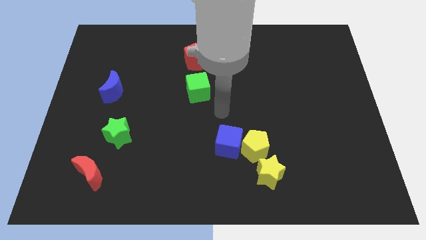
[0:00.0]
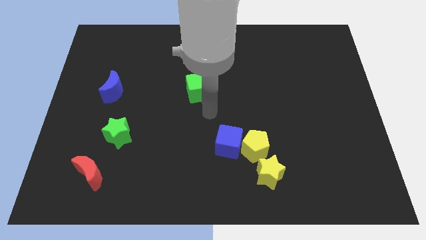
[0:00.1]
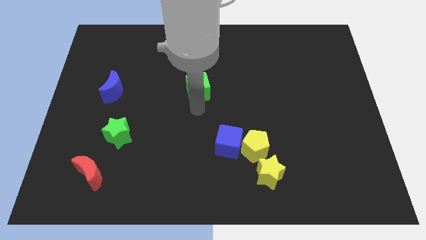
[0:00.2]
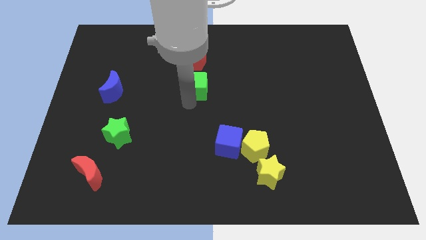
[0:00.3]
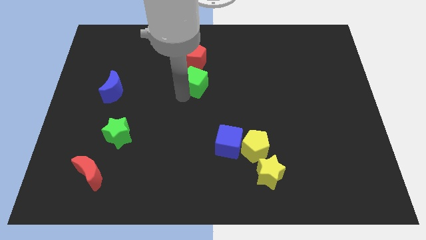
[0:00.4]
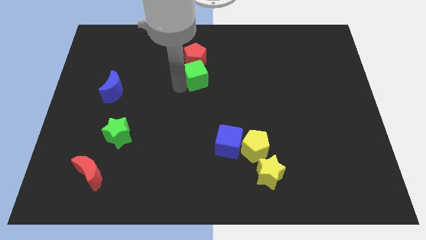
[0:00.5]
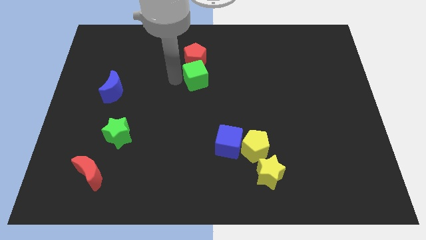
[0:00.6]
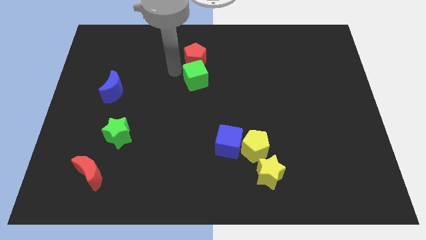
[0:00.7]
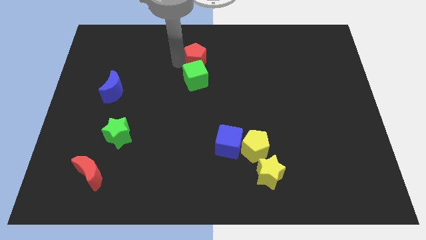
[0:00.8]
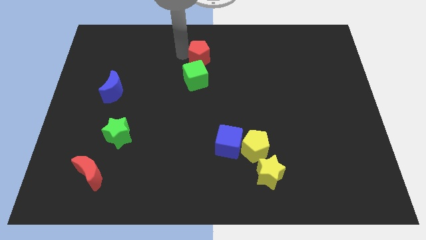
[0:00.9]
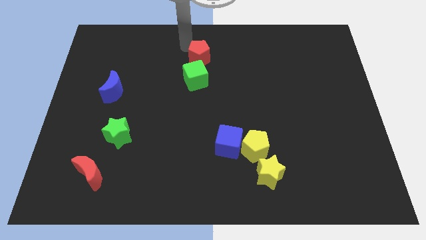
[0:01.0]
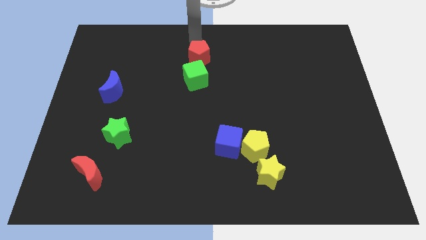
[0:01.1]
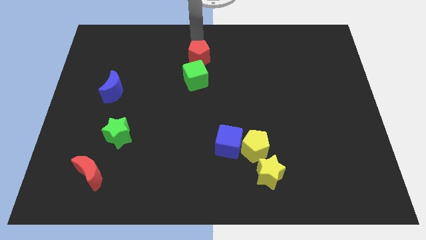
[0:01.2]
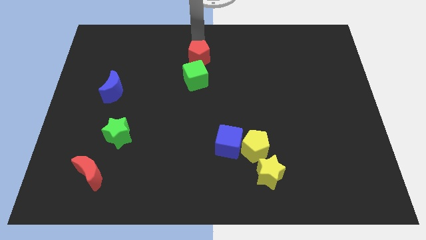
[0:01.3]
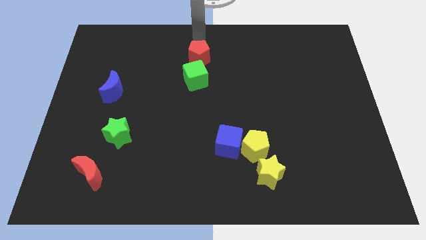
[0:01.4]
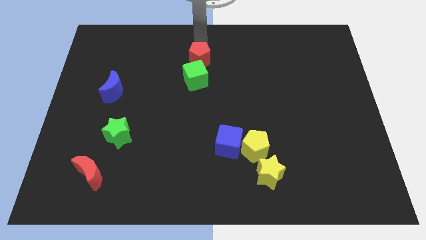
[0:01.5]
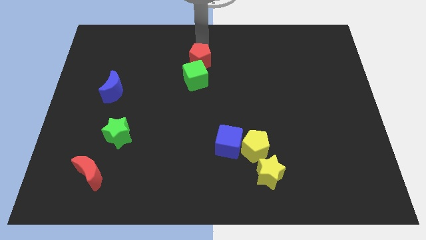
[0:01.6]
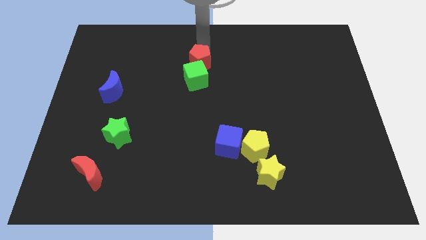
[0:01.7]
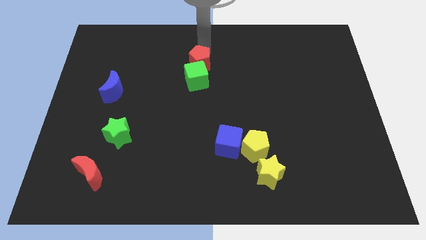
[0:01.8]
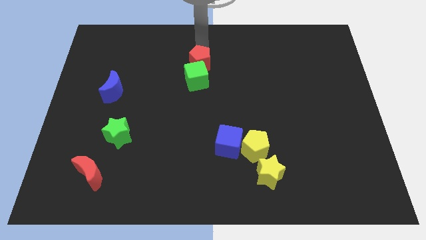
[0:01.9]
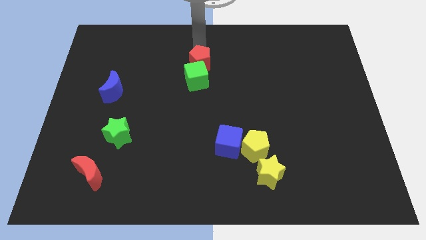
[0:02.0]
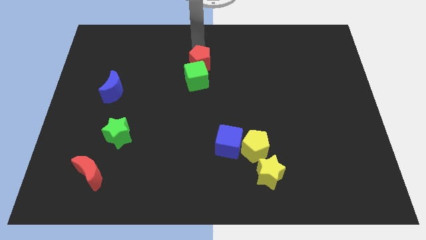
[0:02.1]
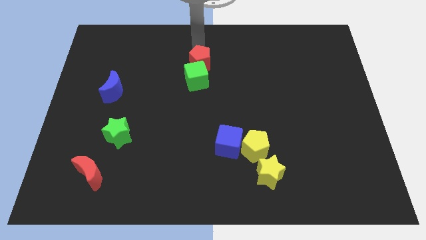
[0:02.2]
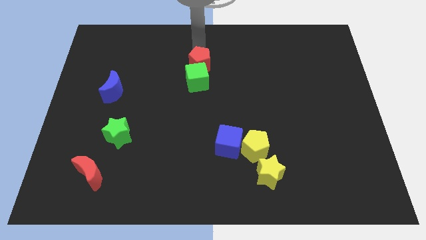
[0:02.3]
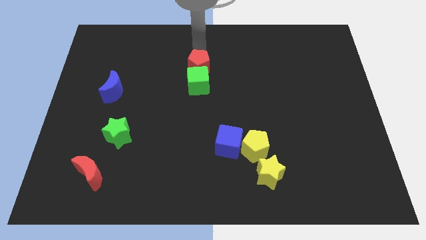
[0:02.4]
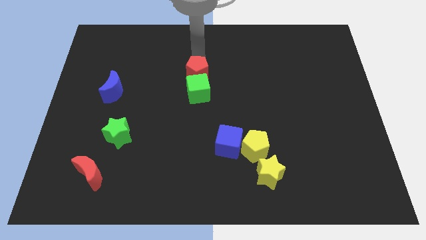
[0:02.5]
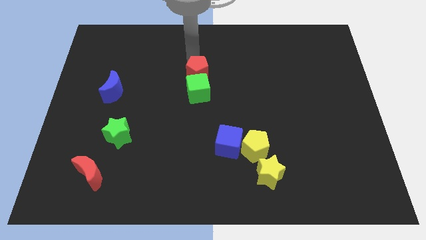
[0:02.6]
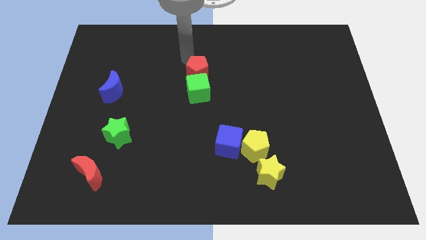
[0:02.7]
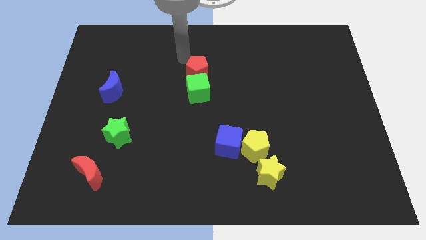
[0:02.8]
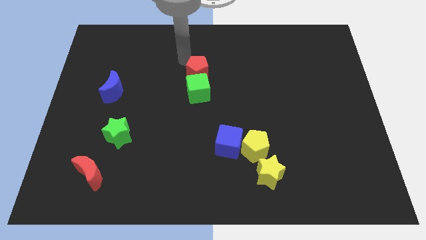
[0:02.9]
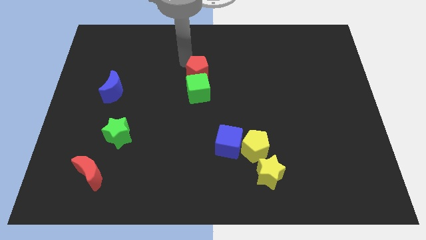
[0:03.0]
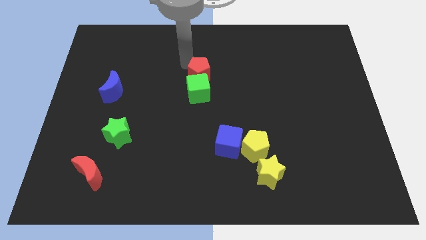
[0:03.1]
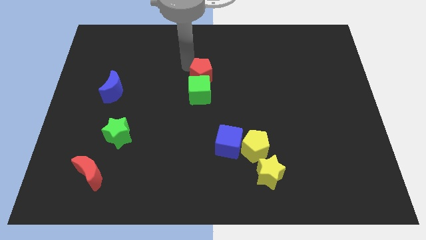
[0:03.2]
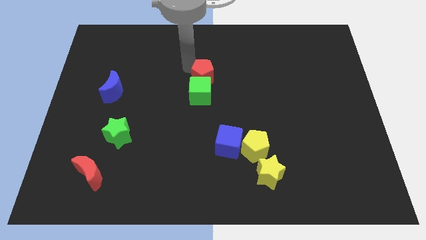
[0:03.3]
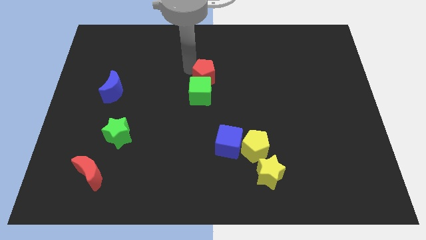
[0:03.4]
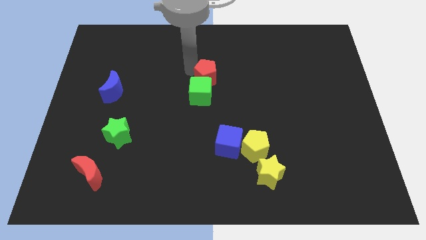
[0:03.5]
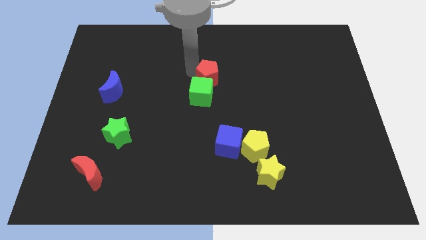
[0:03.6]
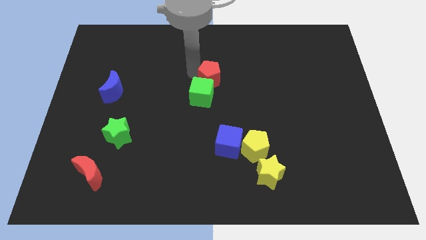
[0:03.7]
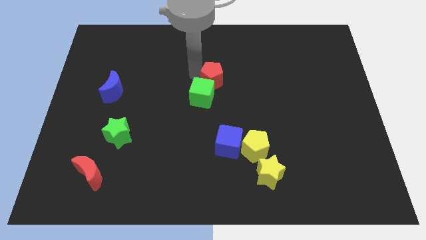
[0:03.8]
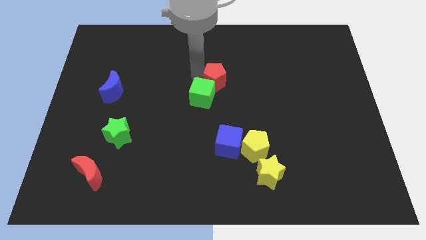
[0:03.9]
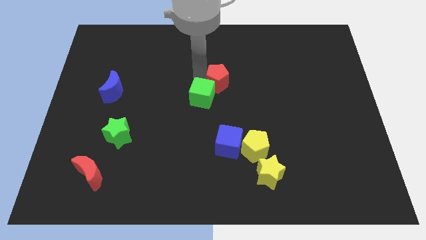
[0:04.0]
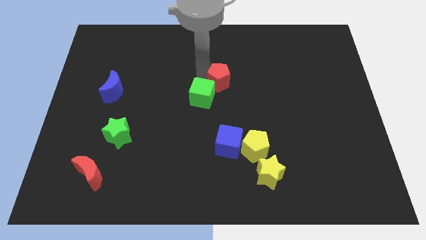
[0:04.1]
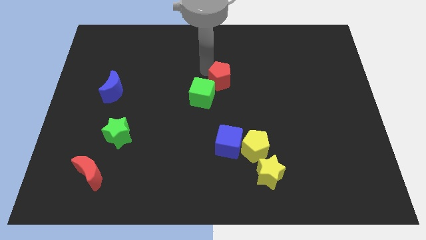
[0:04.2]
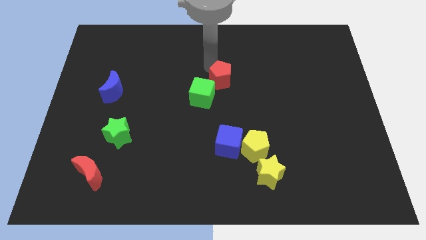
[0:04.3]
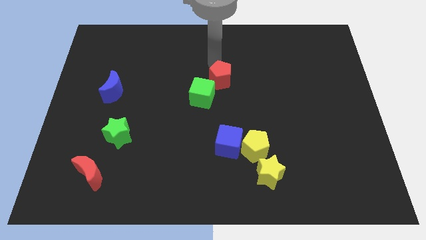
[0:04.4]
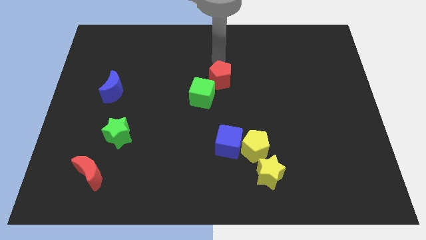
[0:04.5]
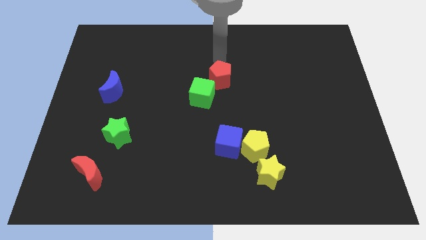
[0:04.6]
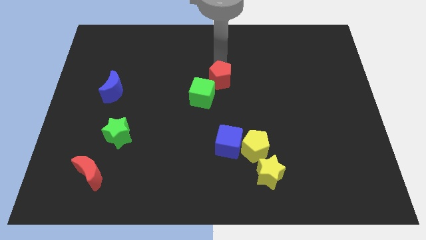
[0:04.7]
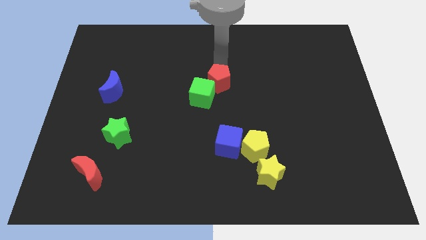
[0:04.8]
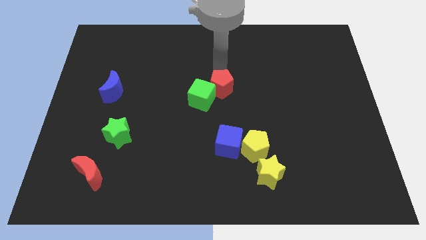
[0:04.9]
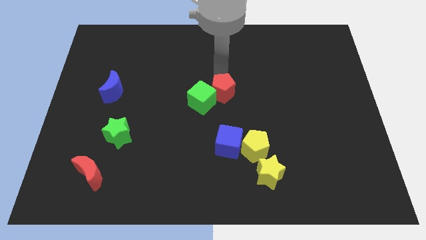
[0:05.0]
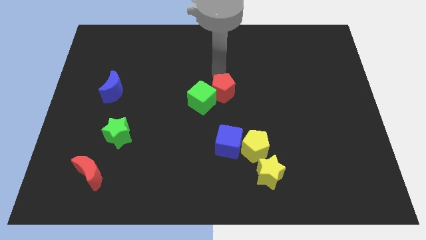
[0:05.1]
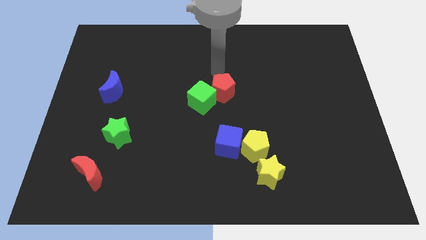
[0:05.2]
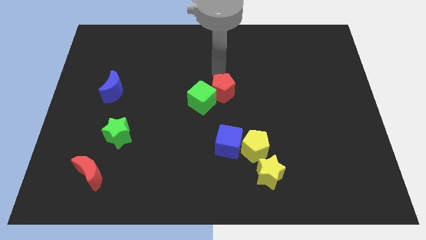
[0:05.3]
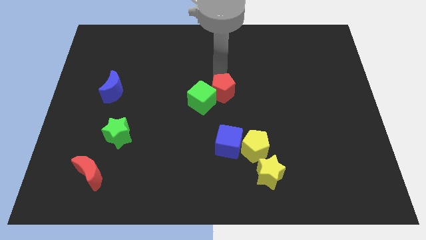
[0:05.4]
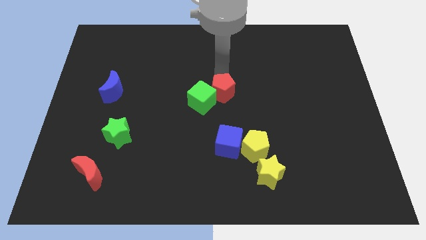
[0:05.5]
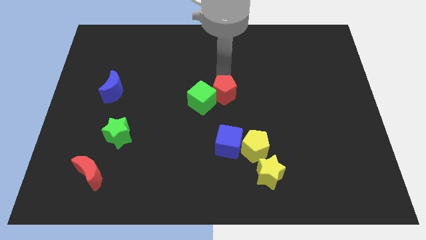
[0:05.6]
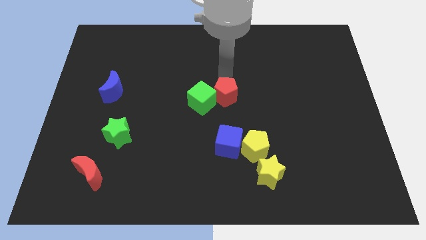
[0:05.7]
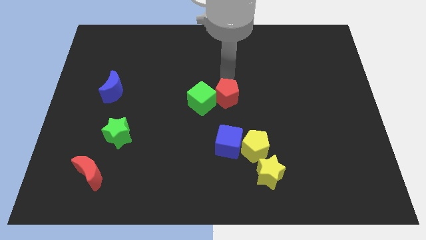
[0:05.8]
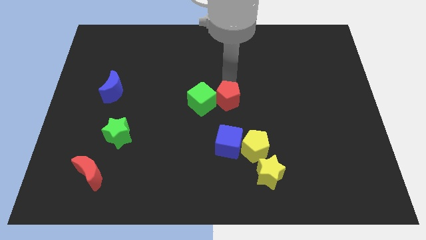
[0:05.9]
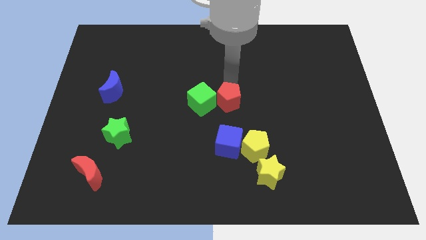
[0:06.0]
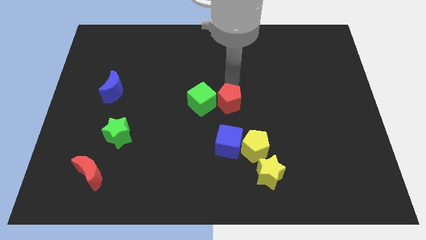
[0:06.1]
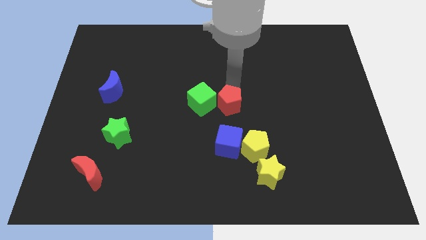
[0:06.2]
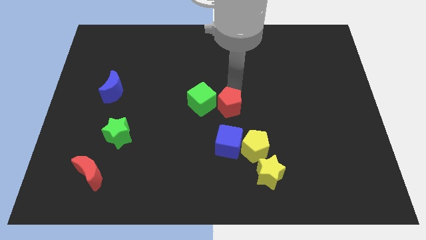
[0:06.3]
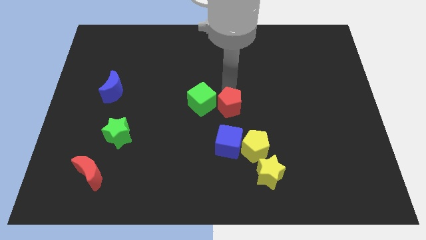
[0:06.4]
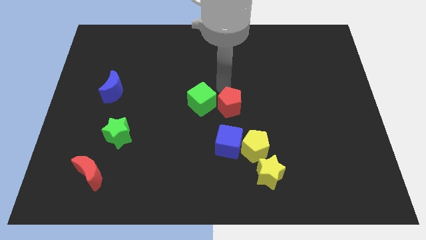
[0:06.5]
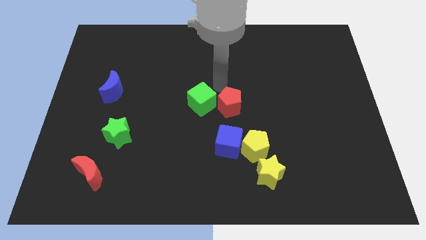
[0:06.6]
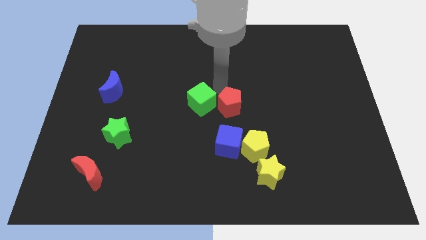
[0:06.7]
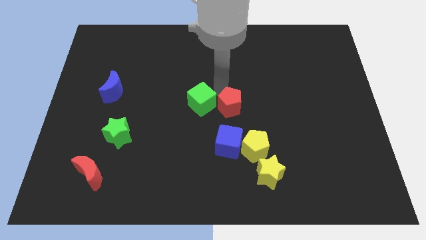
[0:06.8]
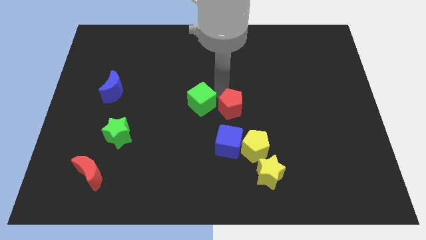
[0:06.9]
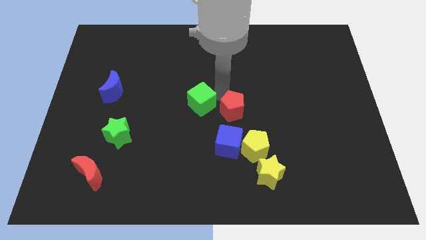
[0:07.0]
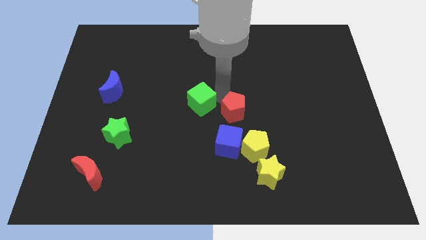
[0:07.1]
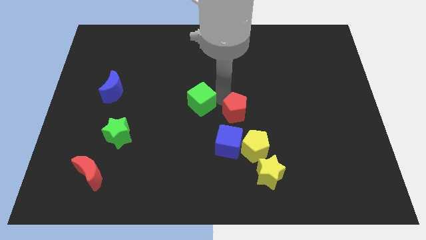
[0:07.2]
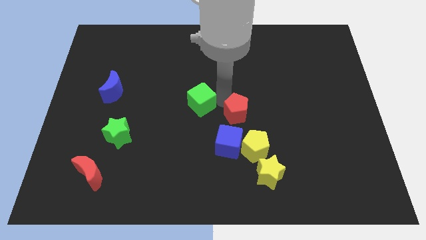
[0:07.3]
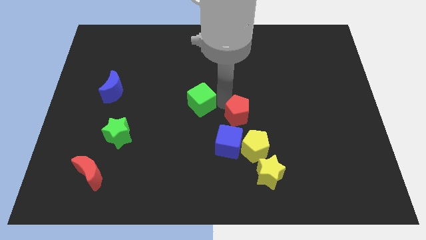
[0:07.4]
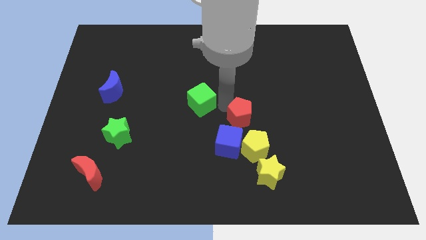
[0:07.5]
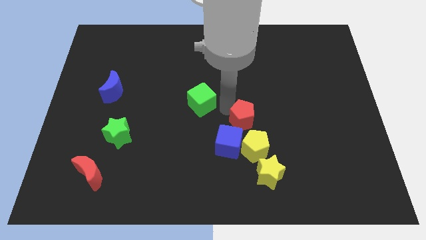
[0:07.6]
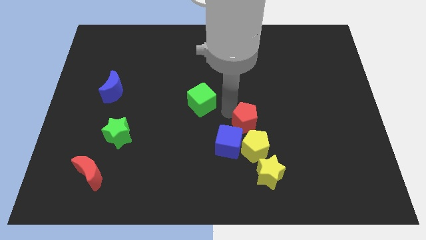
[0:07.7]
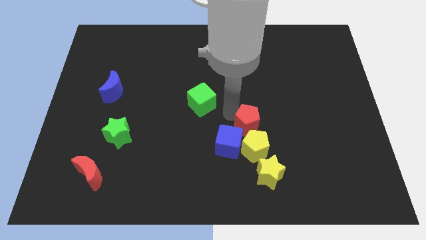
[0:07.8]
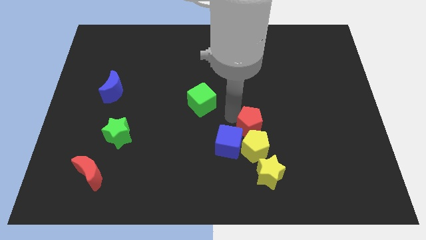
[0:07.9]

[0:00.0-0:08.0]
move the red pentagon close to the yellow pentagon
